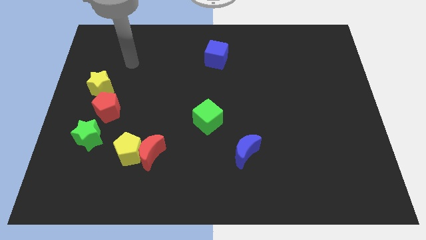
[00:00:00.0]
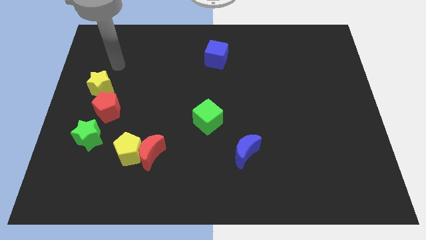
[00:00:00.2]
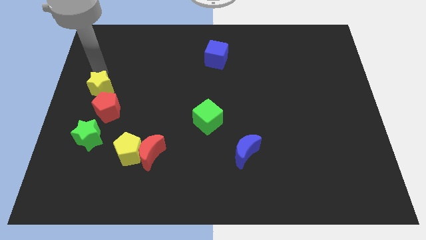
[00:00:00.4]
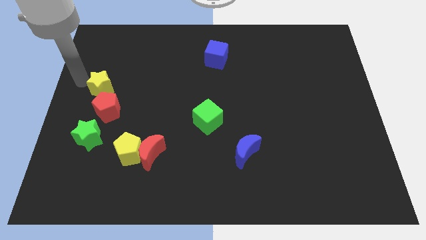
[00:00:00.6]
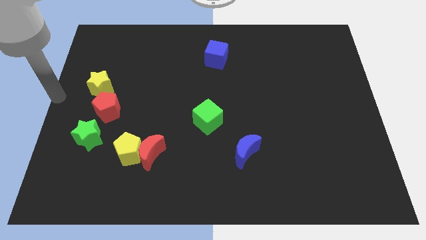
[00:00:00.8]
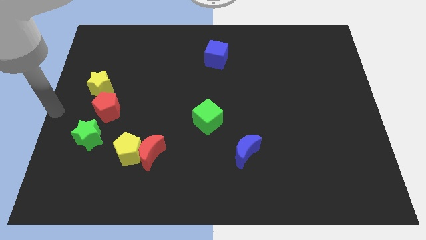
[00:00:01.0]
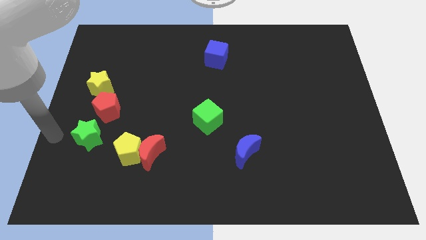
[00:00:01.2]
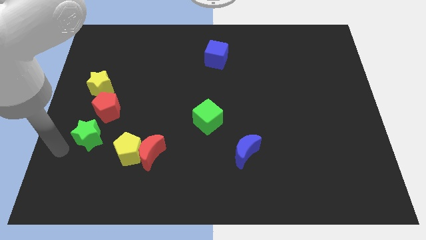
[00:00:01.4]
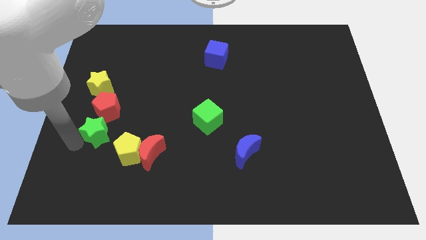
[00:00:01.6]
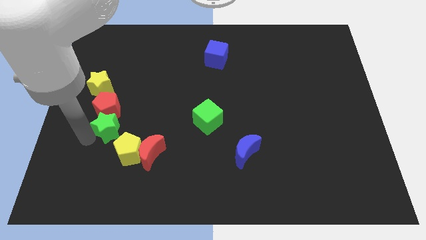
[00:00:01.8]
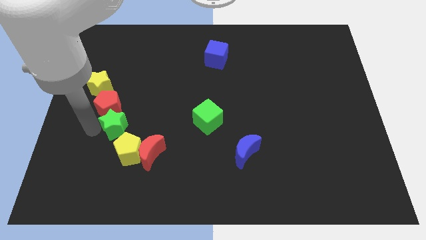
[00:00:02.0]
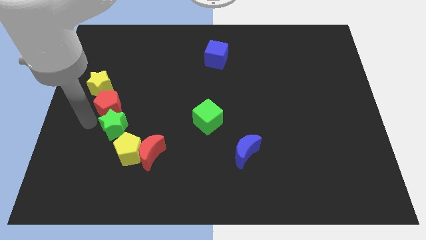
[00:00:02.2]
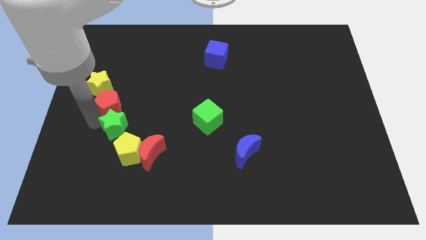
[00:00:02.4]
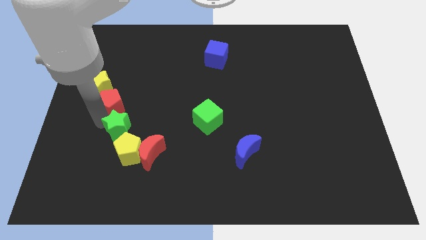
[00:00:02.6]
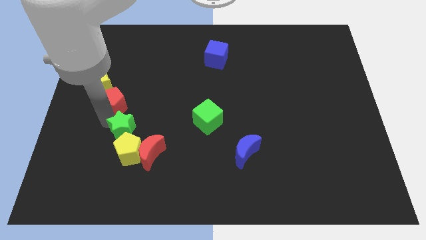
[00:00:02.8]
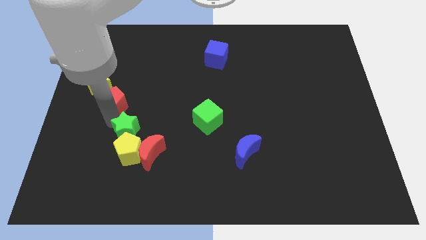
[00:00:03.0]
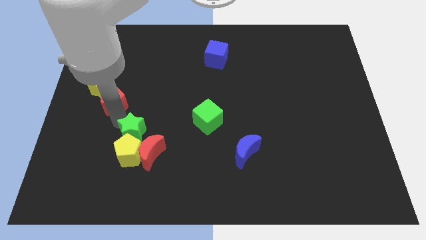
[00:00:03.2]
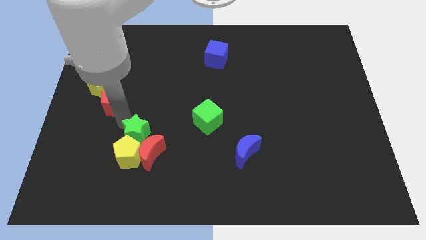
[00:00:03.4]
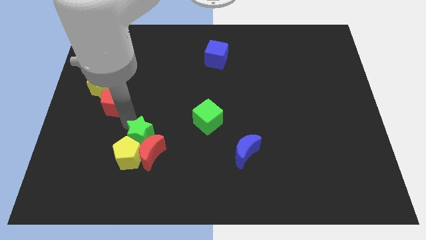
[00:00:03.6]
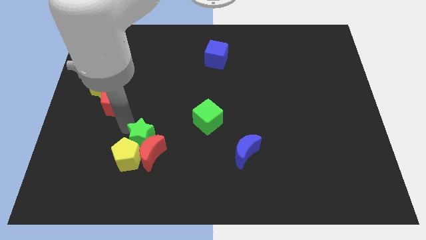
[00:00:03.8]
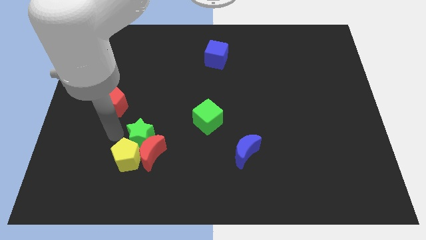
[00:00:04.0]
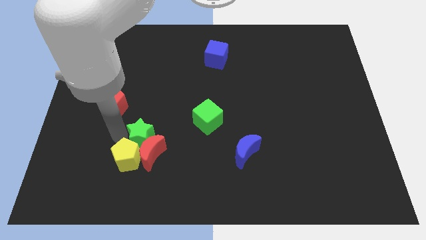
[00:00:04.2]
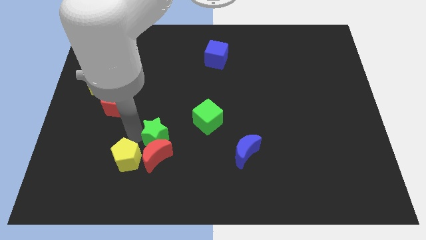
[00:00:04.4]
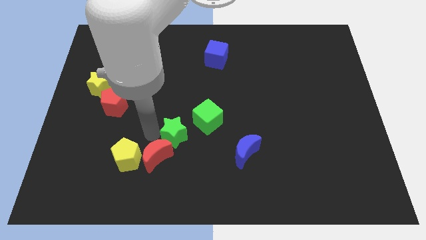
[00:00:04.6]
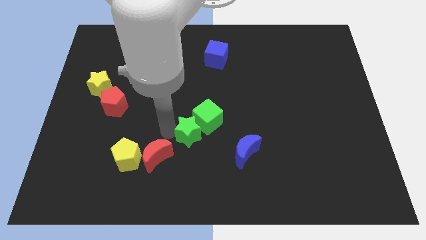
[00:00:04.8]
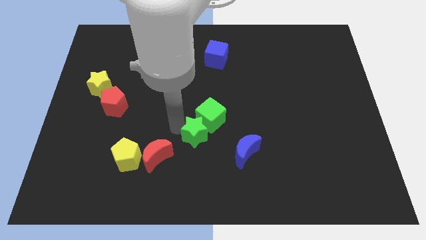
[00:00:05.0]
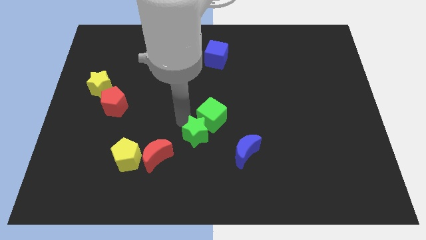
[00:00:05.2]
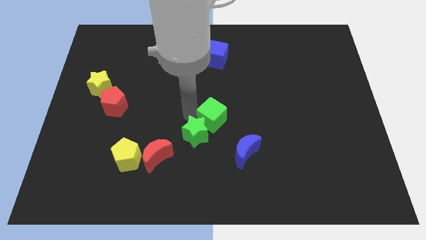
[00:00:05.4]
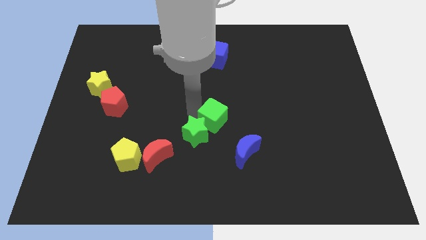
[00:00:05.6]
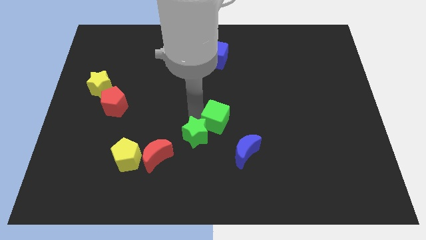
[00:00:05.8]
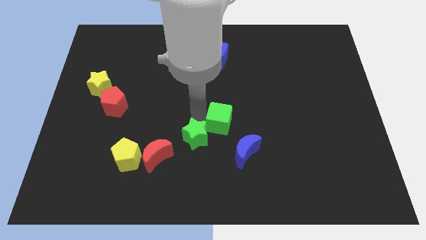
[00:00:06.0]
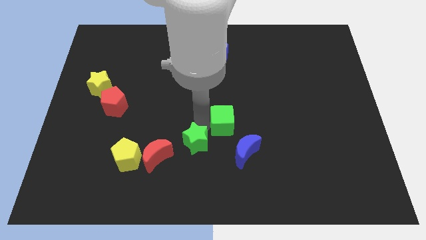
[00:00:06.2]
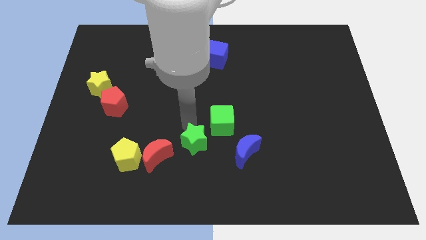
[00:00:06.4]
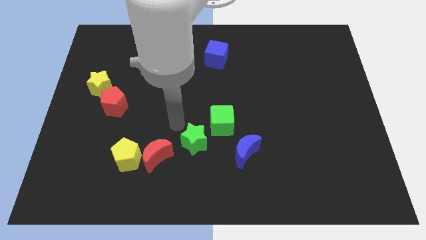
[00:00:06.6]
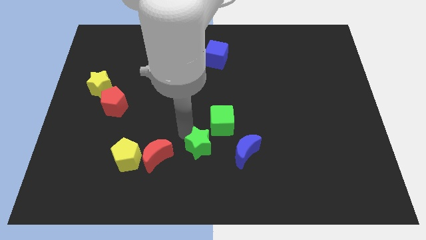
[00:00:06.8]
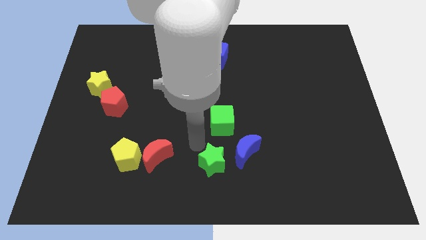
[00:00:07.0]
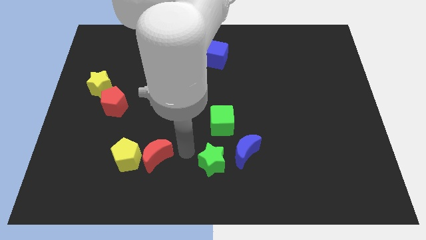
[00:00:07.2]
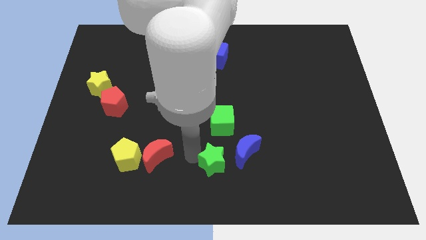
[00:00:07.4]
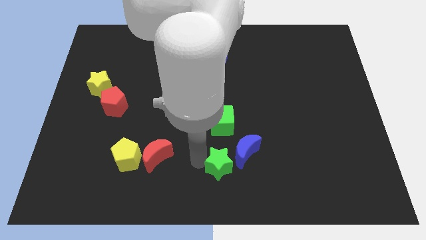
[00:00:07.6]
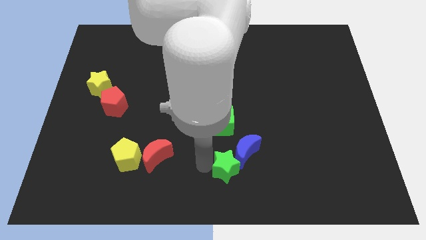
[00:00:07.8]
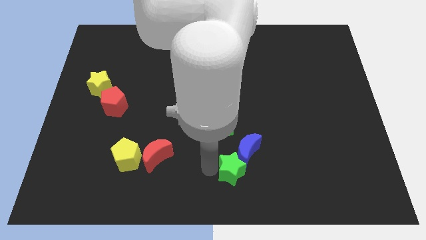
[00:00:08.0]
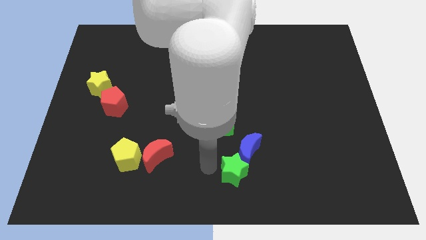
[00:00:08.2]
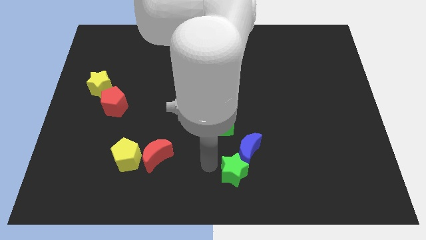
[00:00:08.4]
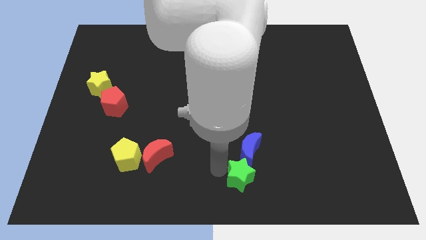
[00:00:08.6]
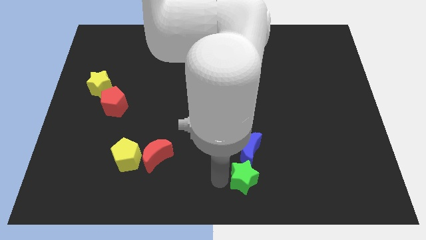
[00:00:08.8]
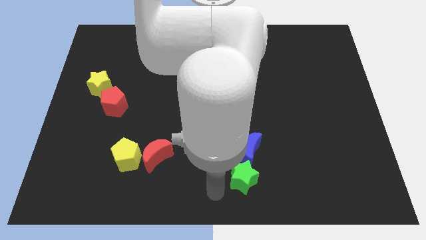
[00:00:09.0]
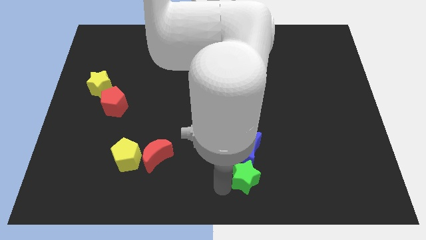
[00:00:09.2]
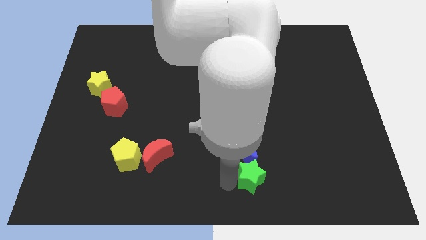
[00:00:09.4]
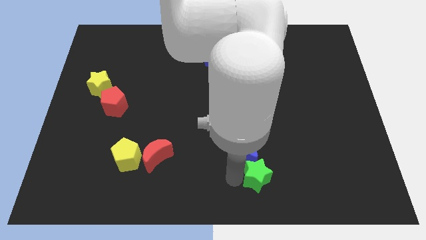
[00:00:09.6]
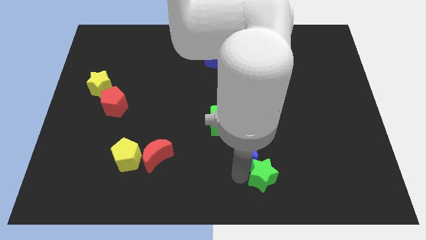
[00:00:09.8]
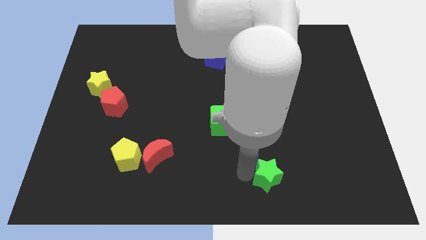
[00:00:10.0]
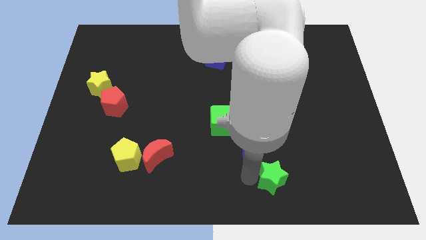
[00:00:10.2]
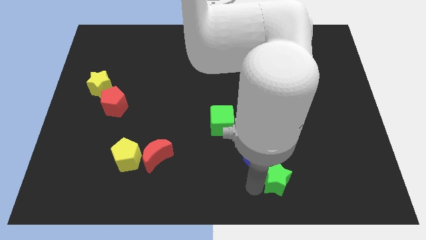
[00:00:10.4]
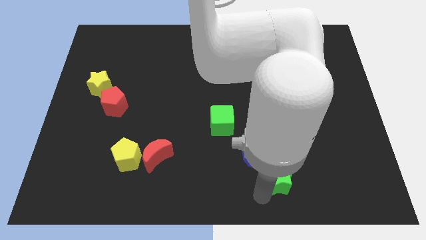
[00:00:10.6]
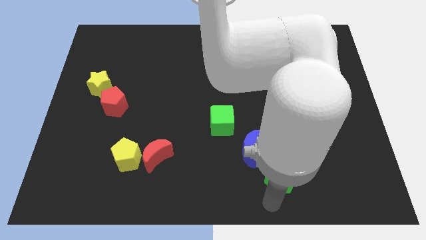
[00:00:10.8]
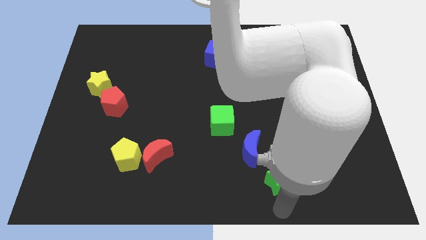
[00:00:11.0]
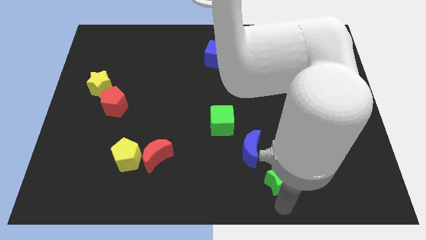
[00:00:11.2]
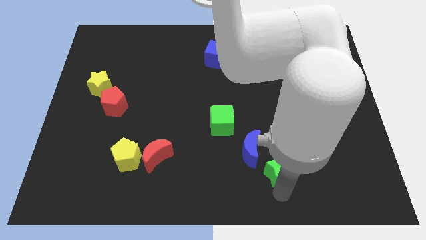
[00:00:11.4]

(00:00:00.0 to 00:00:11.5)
push the green star to the right of the blue moon

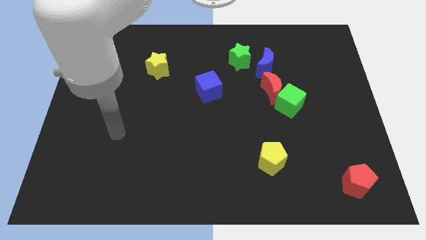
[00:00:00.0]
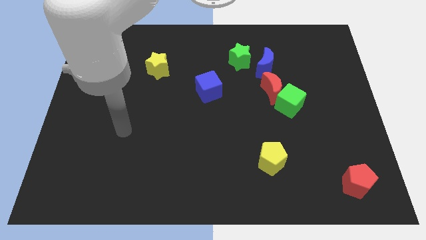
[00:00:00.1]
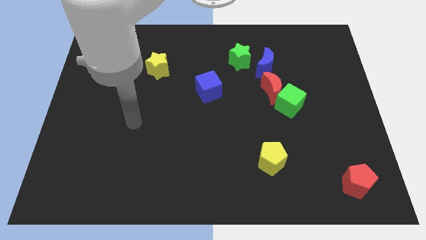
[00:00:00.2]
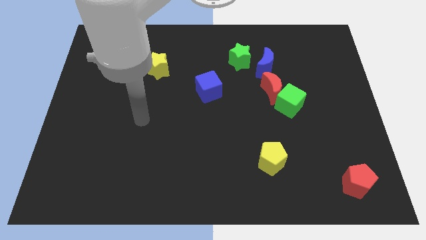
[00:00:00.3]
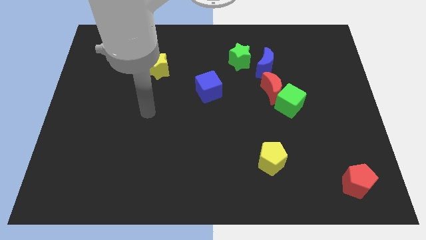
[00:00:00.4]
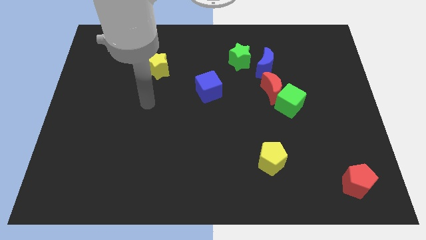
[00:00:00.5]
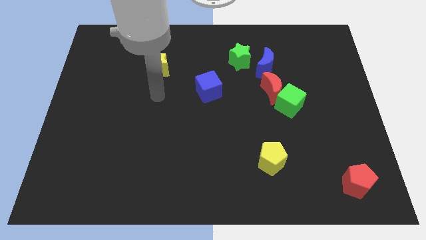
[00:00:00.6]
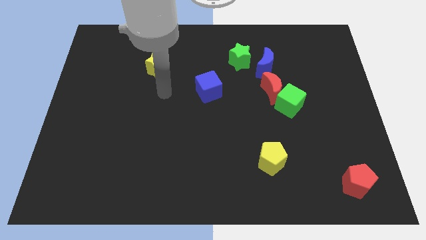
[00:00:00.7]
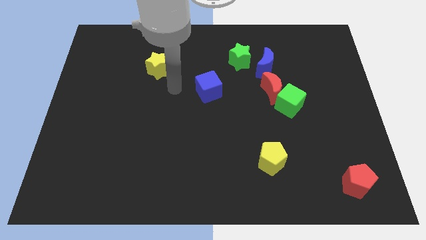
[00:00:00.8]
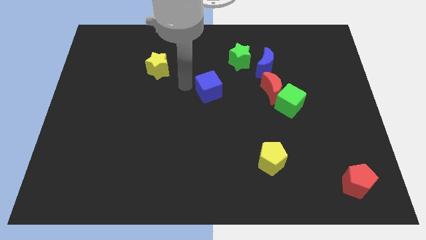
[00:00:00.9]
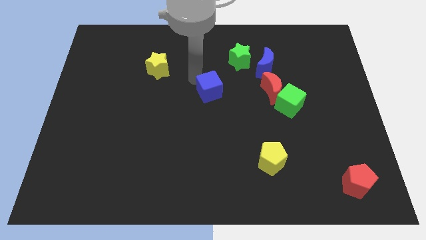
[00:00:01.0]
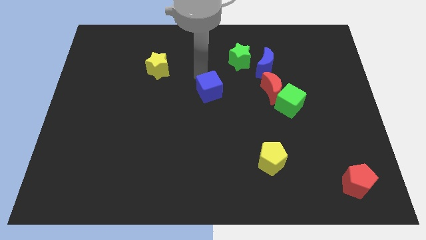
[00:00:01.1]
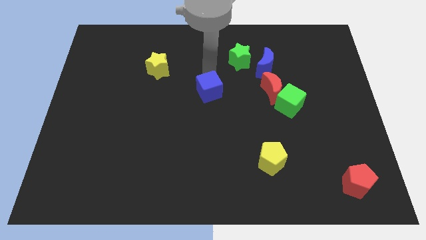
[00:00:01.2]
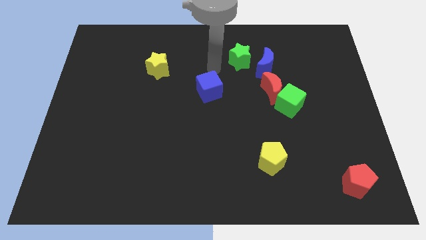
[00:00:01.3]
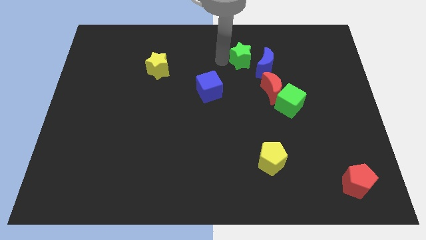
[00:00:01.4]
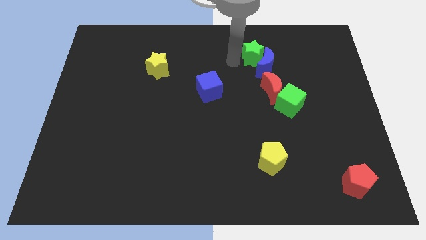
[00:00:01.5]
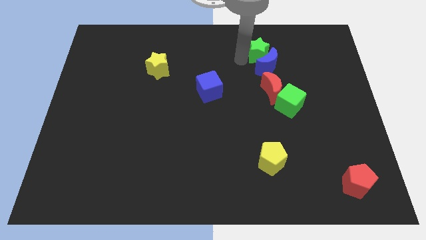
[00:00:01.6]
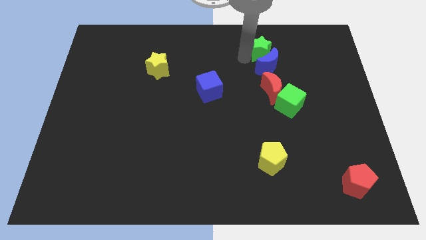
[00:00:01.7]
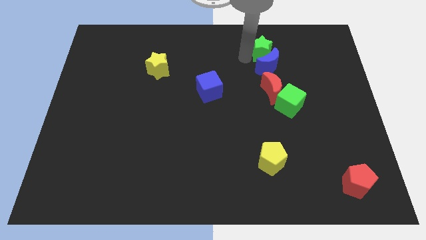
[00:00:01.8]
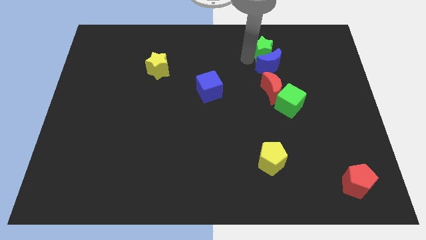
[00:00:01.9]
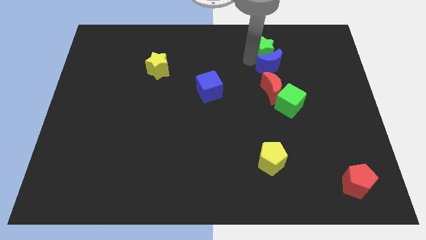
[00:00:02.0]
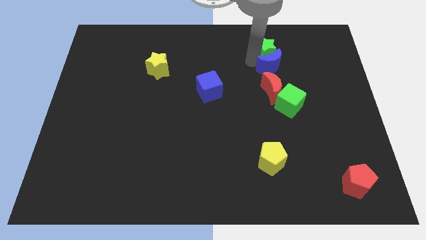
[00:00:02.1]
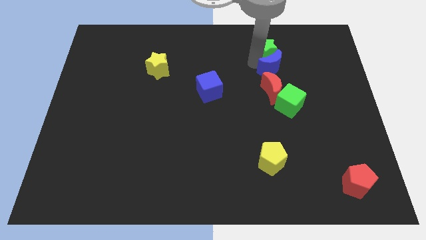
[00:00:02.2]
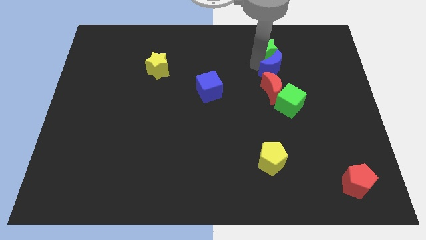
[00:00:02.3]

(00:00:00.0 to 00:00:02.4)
put the blue moon diagonally up and to the right of the red moon
